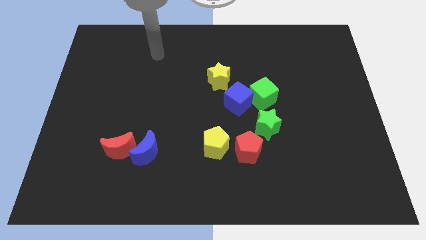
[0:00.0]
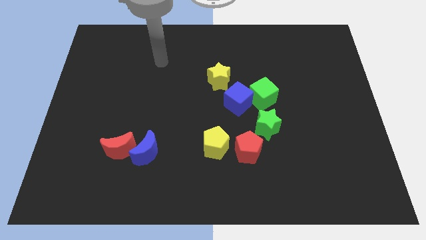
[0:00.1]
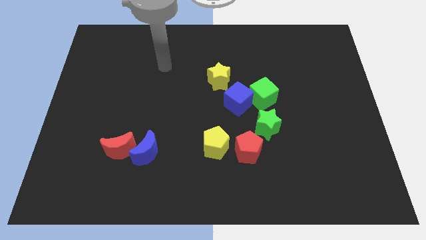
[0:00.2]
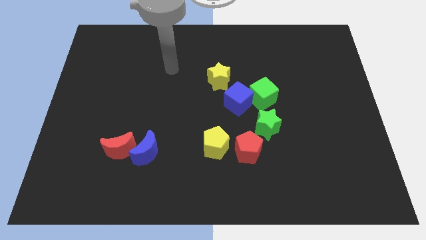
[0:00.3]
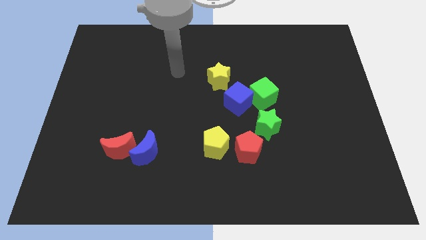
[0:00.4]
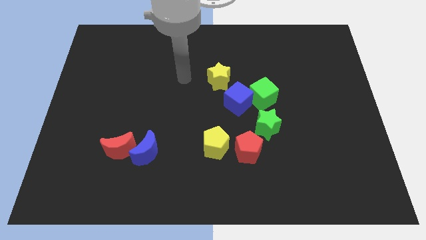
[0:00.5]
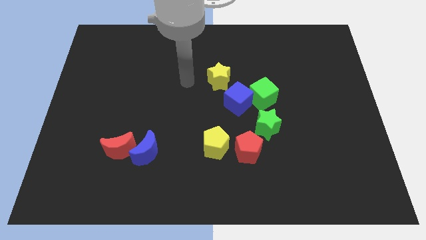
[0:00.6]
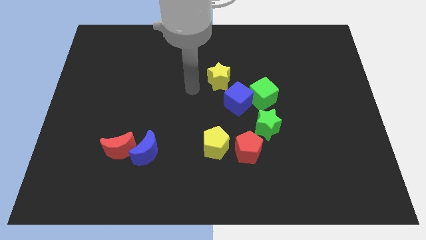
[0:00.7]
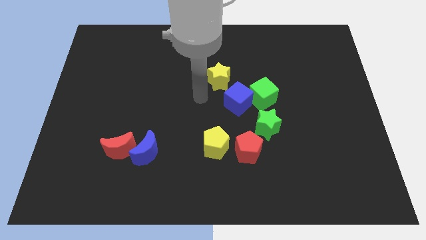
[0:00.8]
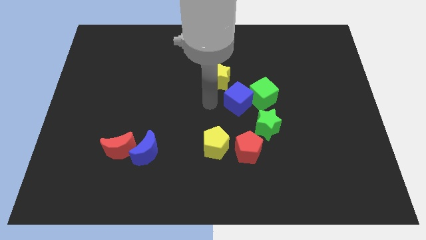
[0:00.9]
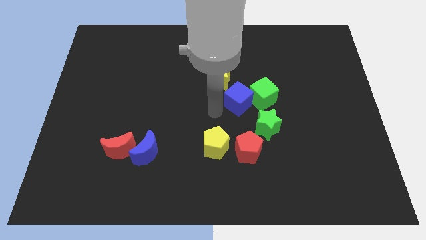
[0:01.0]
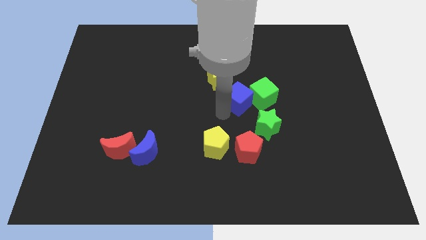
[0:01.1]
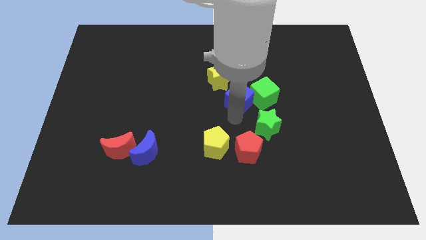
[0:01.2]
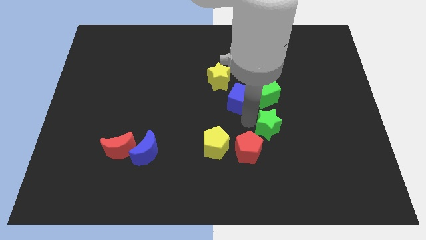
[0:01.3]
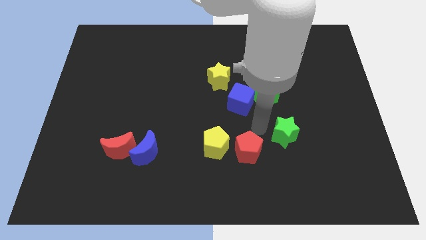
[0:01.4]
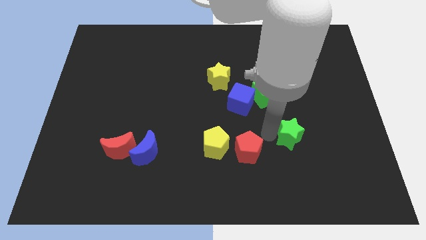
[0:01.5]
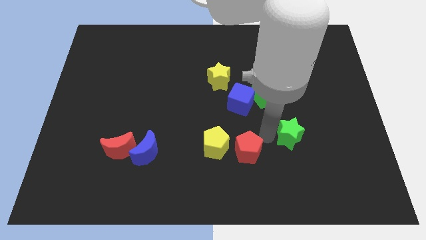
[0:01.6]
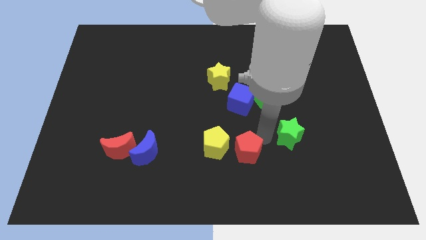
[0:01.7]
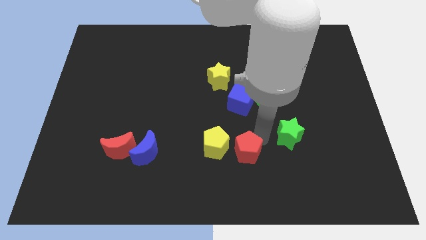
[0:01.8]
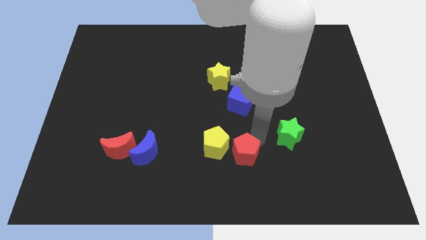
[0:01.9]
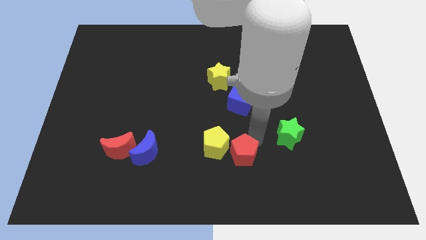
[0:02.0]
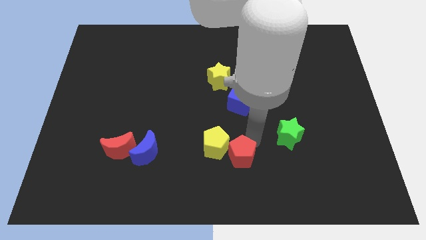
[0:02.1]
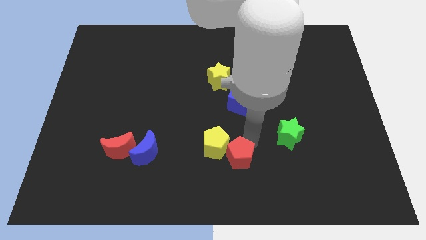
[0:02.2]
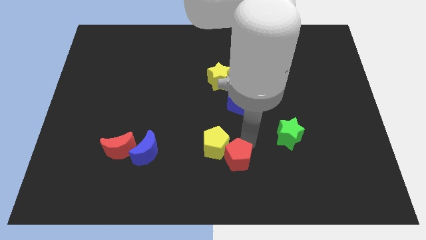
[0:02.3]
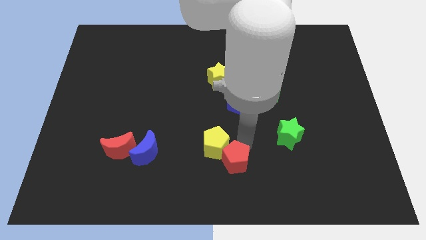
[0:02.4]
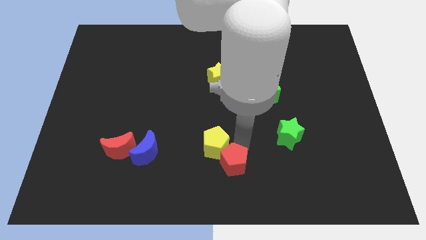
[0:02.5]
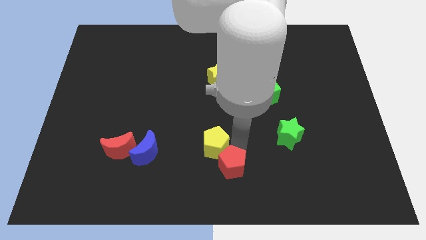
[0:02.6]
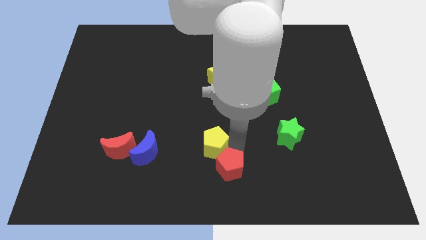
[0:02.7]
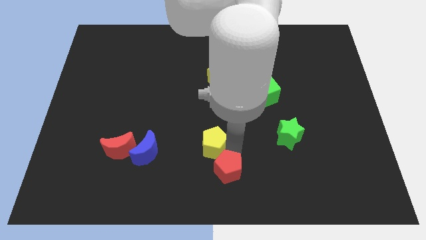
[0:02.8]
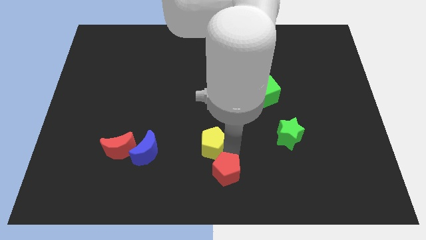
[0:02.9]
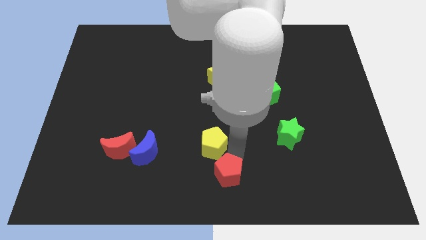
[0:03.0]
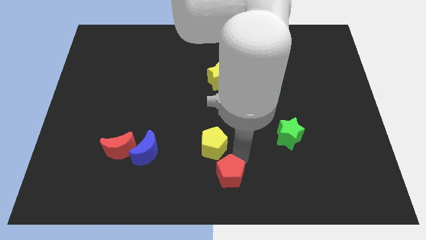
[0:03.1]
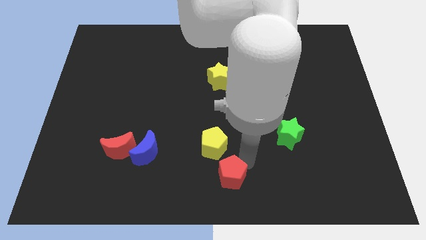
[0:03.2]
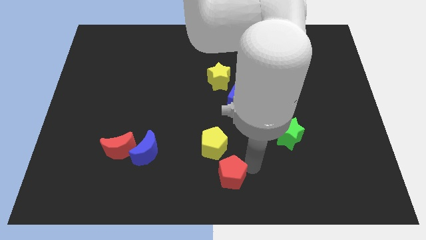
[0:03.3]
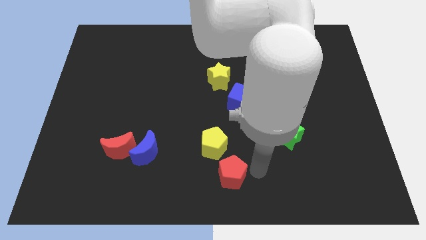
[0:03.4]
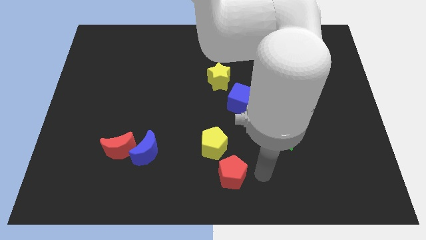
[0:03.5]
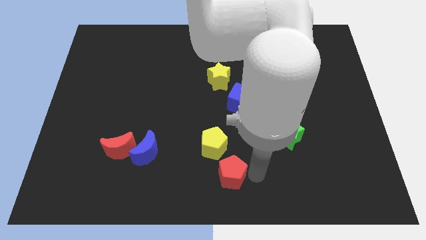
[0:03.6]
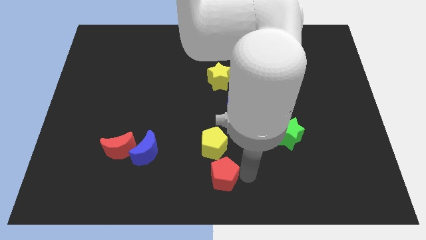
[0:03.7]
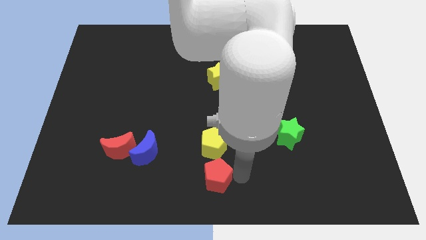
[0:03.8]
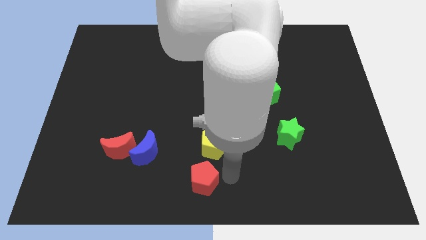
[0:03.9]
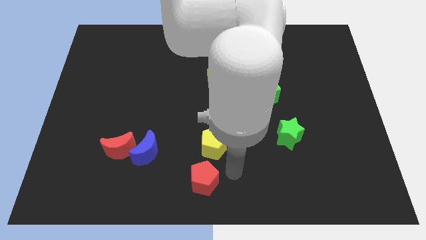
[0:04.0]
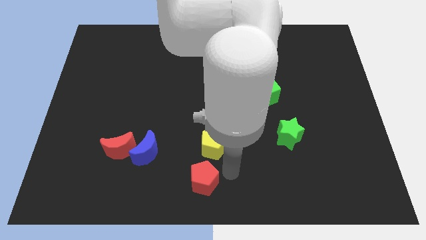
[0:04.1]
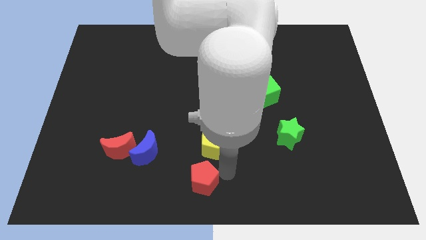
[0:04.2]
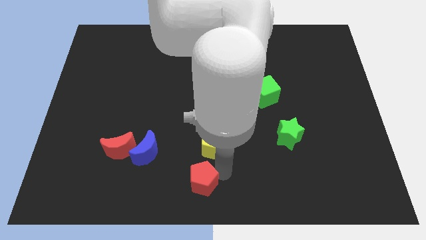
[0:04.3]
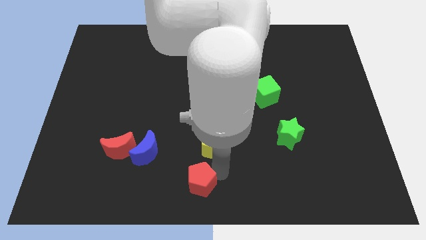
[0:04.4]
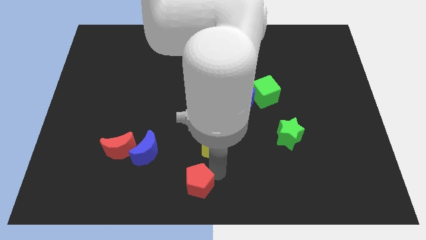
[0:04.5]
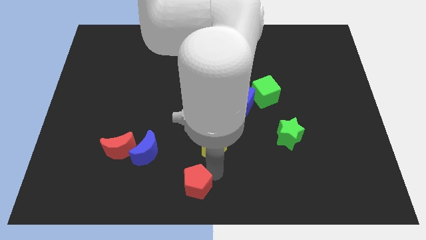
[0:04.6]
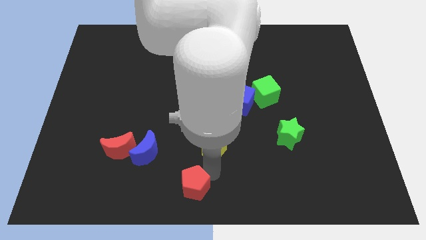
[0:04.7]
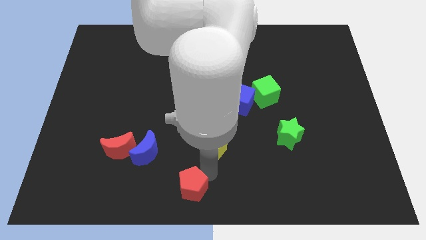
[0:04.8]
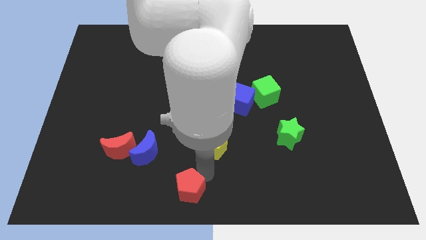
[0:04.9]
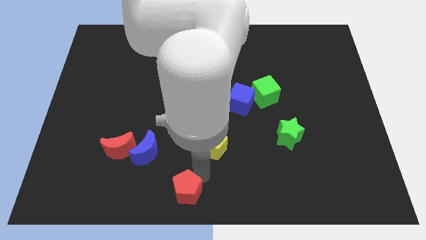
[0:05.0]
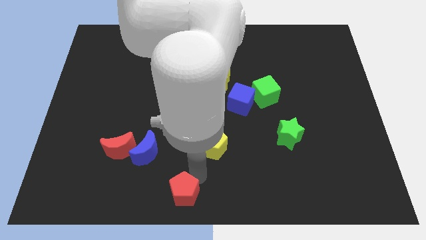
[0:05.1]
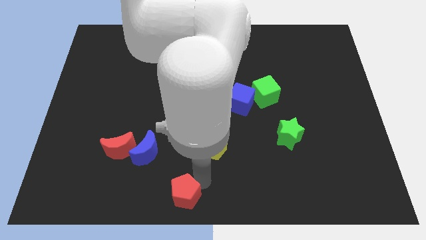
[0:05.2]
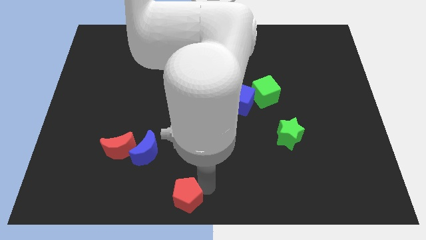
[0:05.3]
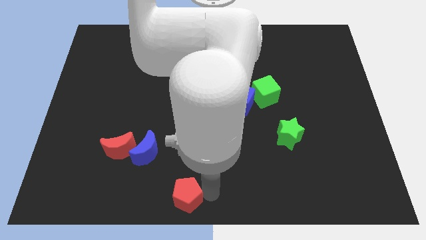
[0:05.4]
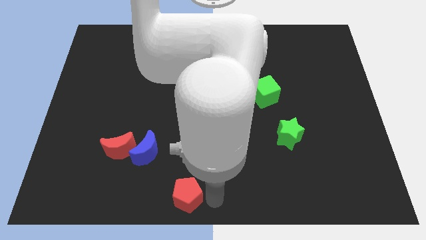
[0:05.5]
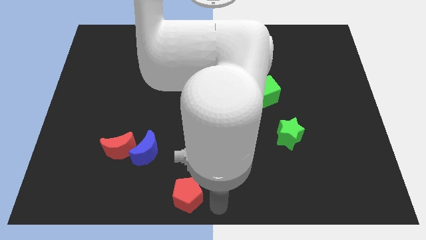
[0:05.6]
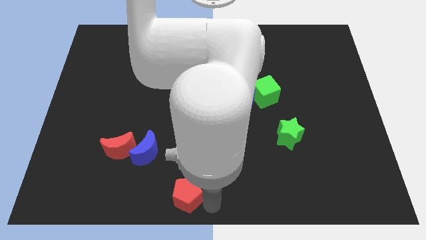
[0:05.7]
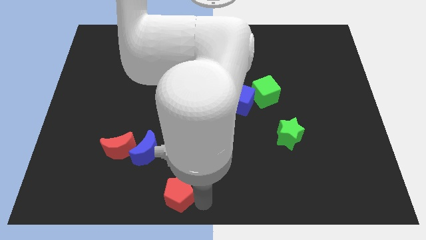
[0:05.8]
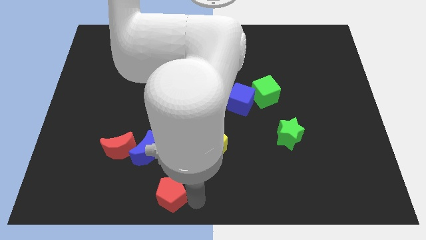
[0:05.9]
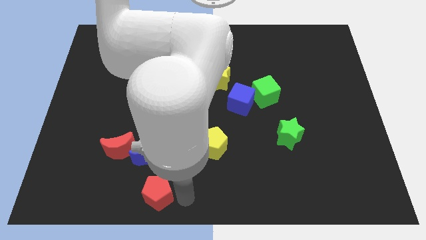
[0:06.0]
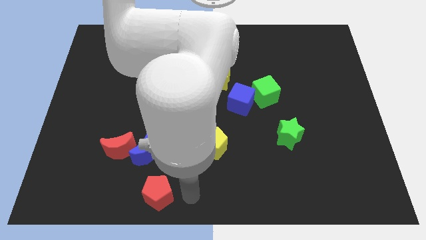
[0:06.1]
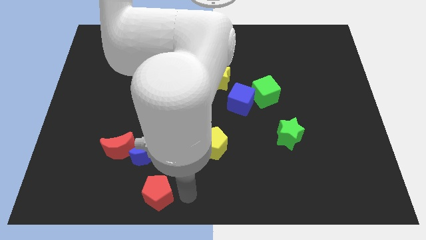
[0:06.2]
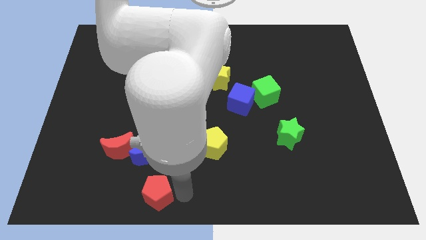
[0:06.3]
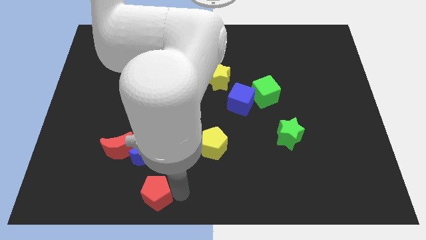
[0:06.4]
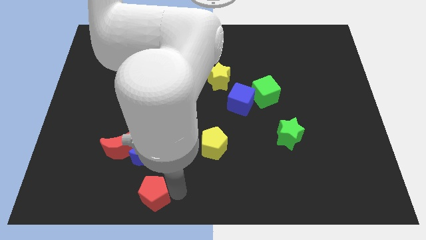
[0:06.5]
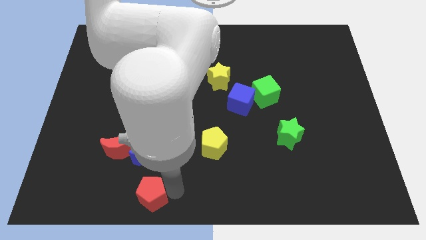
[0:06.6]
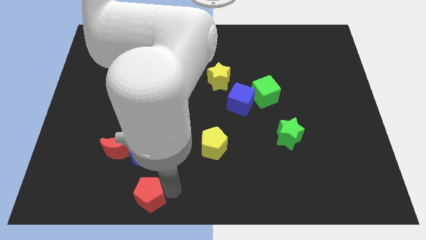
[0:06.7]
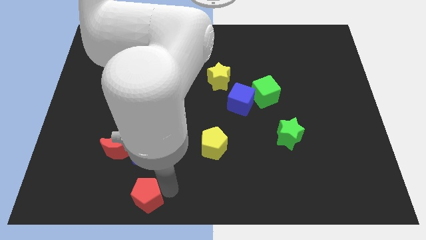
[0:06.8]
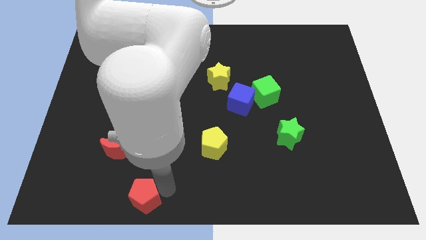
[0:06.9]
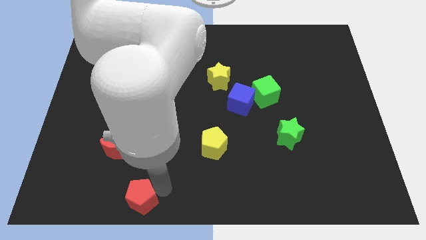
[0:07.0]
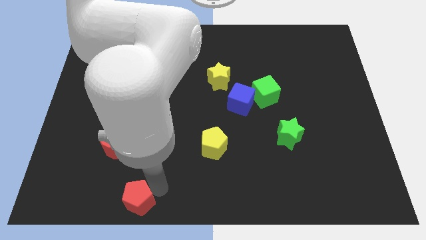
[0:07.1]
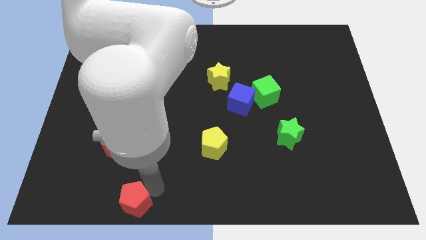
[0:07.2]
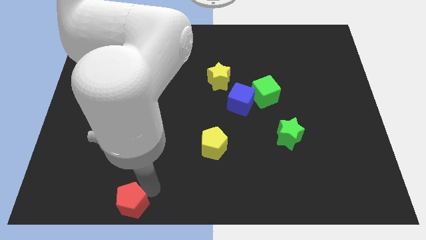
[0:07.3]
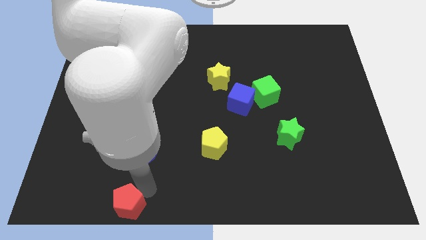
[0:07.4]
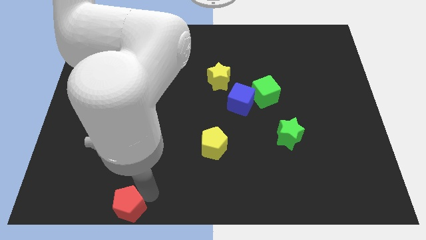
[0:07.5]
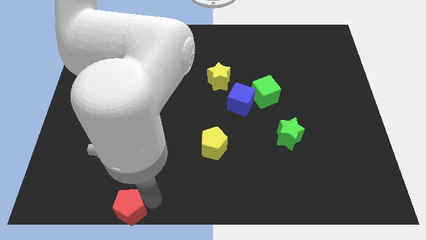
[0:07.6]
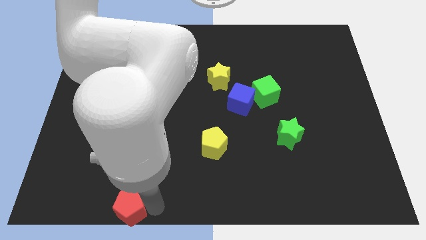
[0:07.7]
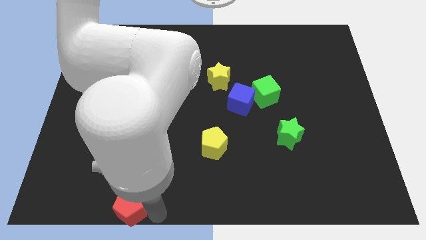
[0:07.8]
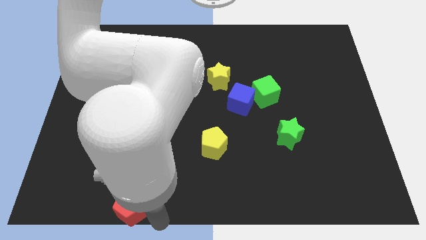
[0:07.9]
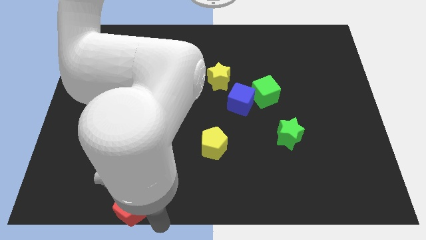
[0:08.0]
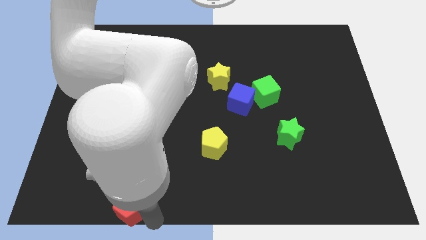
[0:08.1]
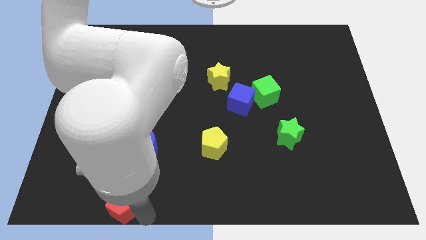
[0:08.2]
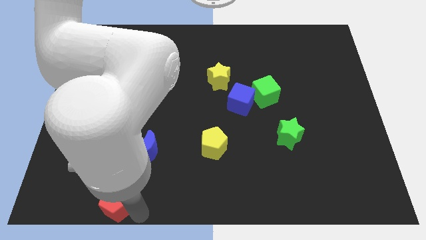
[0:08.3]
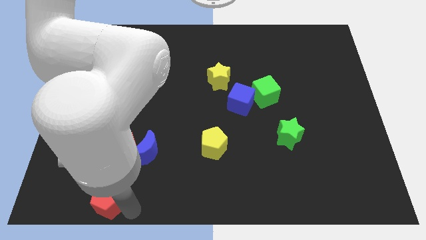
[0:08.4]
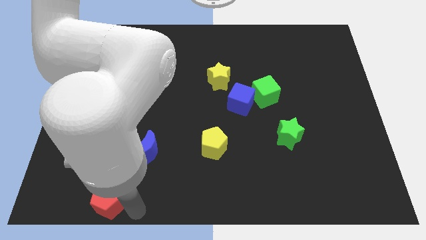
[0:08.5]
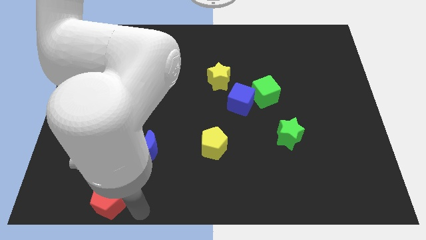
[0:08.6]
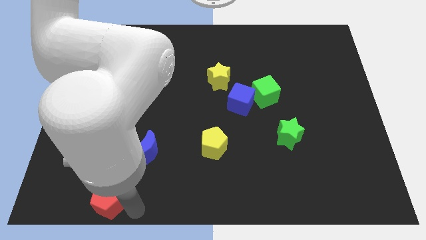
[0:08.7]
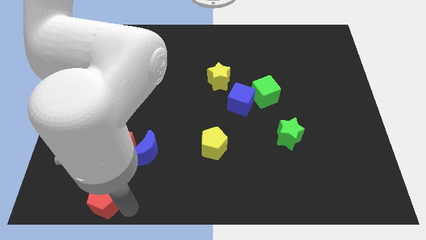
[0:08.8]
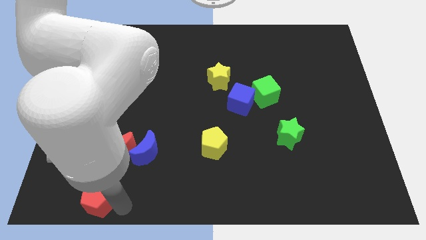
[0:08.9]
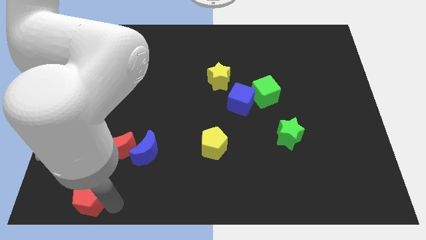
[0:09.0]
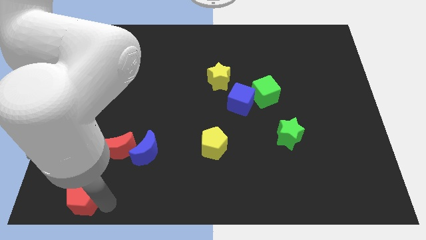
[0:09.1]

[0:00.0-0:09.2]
move the red pentagon to the bottom left of the board
